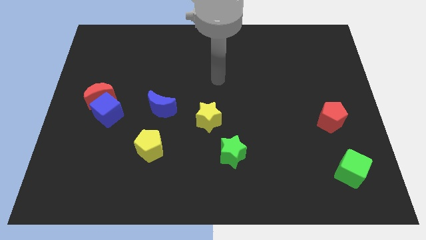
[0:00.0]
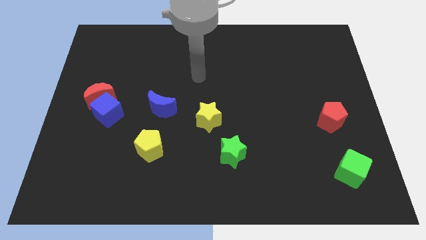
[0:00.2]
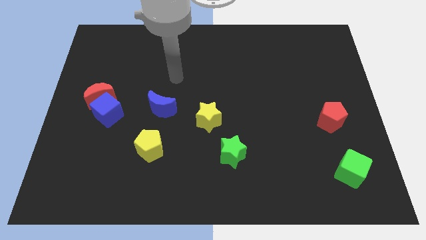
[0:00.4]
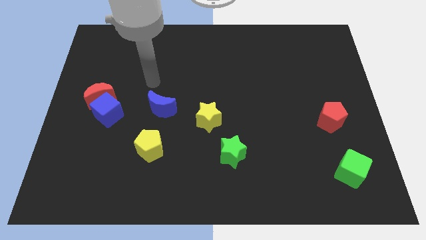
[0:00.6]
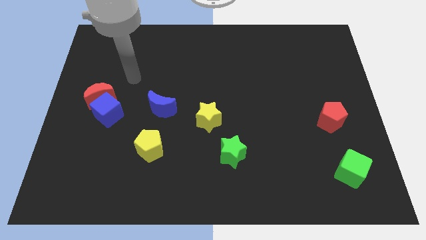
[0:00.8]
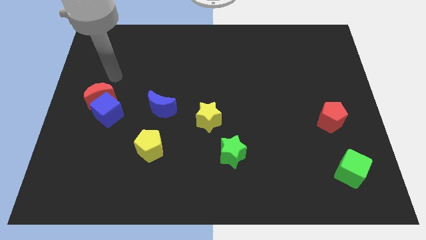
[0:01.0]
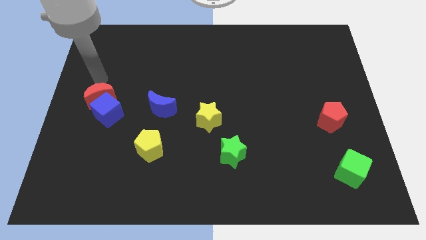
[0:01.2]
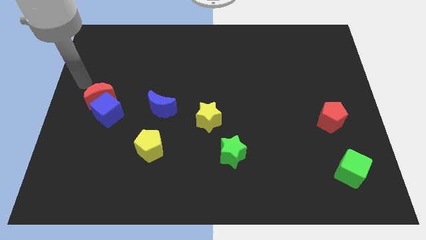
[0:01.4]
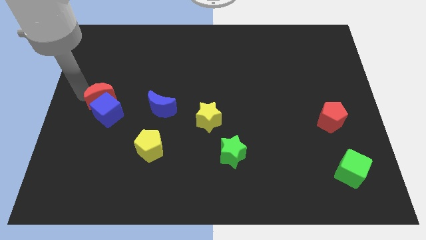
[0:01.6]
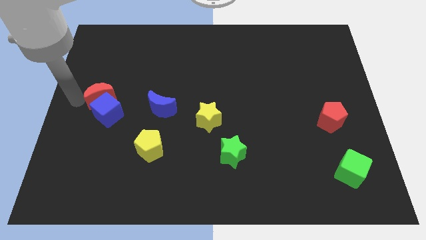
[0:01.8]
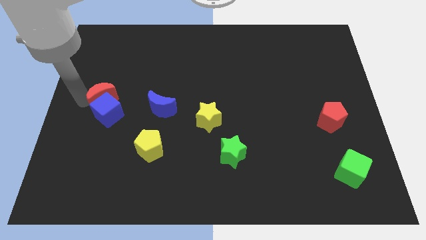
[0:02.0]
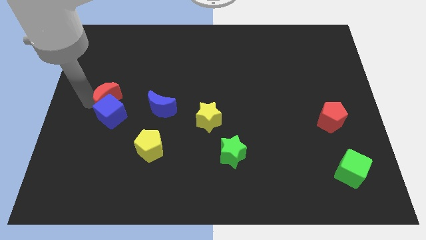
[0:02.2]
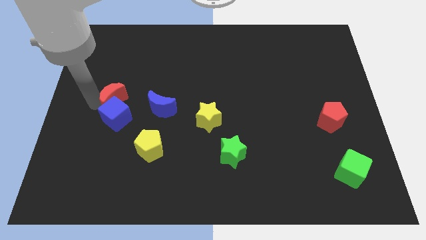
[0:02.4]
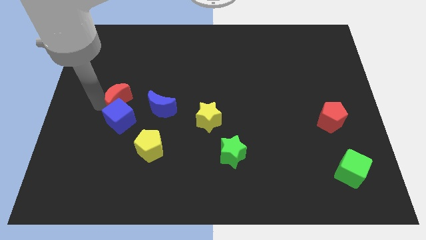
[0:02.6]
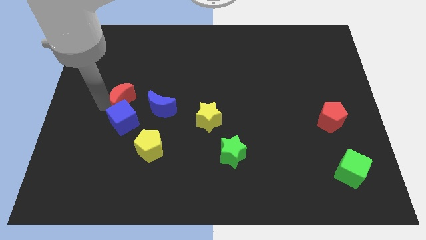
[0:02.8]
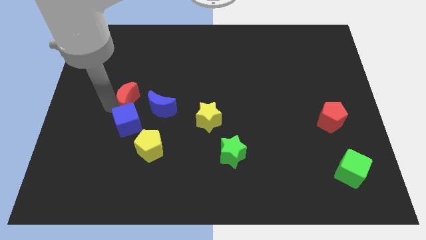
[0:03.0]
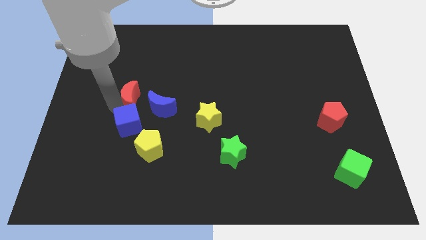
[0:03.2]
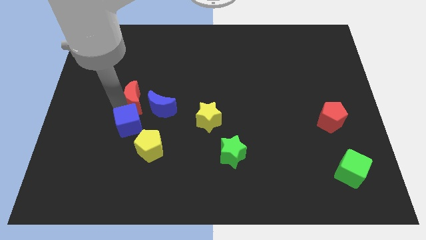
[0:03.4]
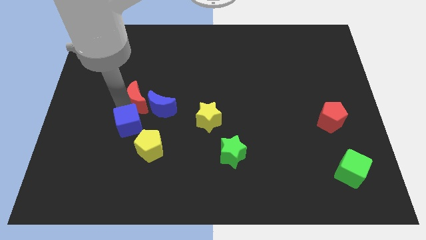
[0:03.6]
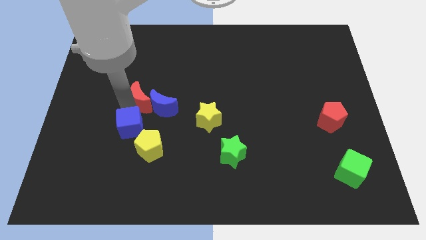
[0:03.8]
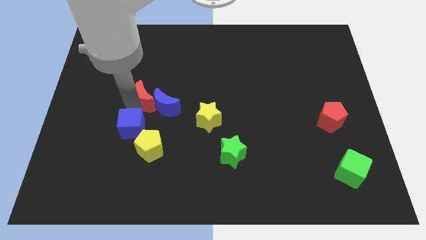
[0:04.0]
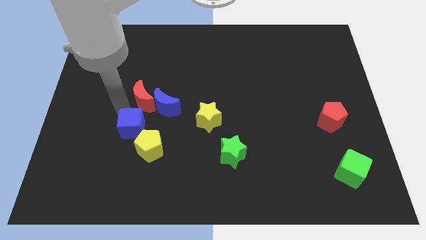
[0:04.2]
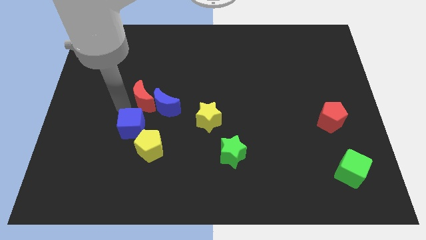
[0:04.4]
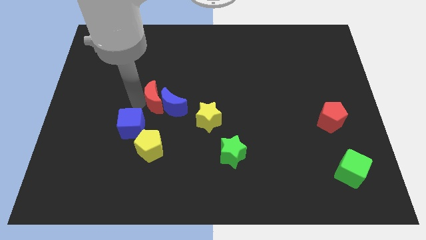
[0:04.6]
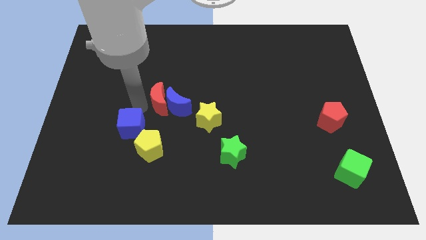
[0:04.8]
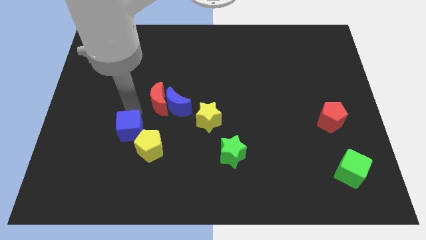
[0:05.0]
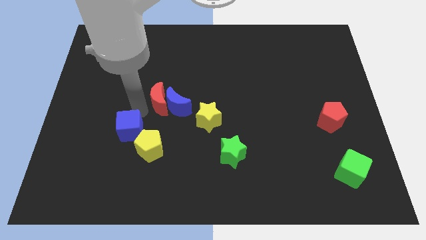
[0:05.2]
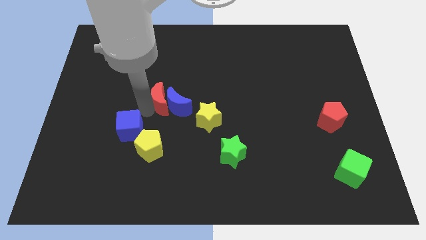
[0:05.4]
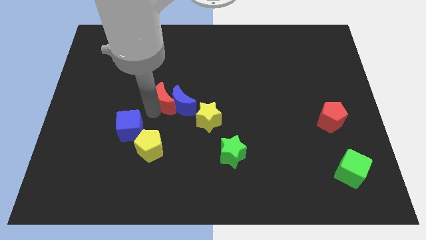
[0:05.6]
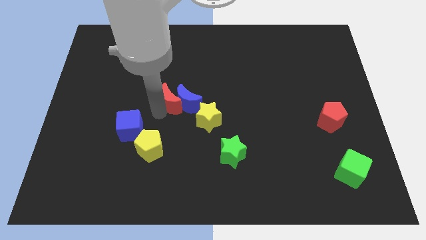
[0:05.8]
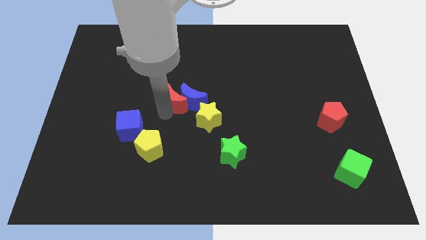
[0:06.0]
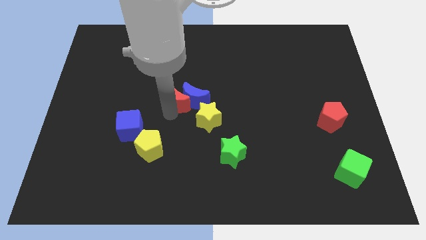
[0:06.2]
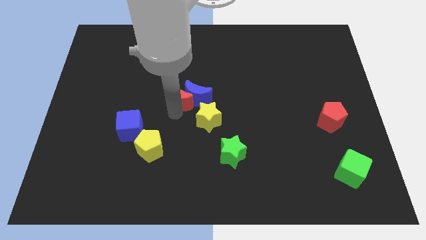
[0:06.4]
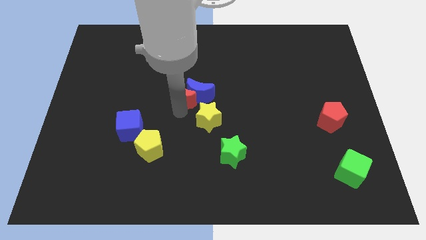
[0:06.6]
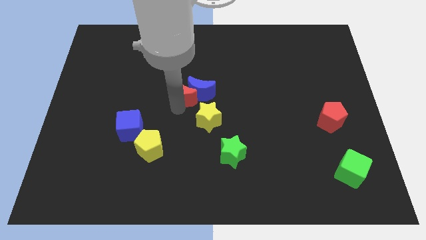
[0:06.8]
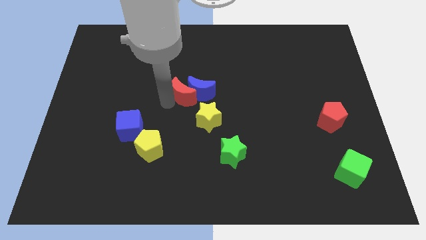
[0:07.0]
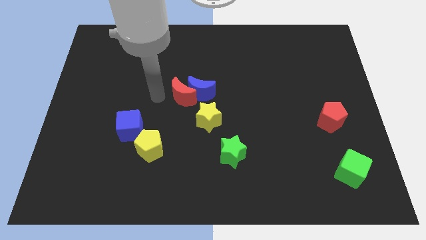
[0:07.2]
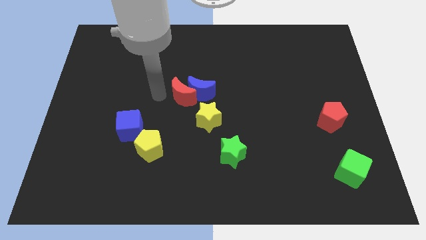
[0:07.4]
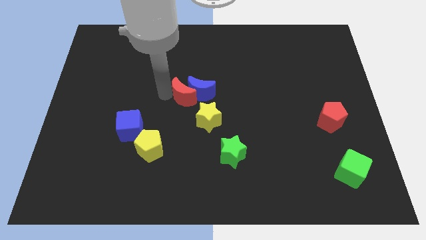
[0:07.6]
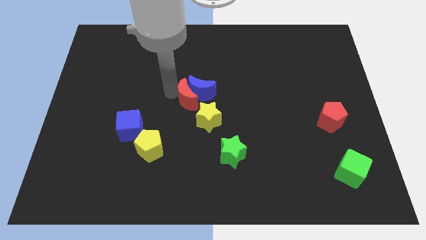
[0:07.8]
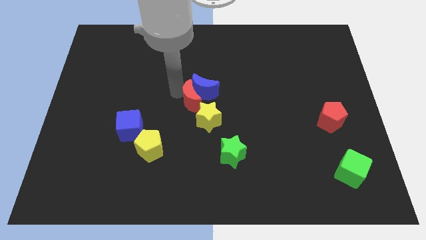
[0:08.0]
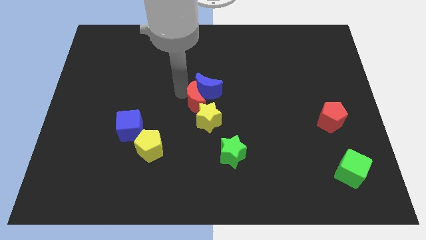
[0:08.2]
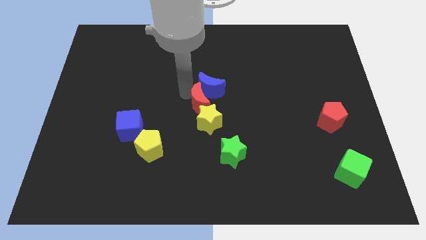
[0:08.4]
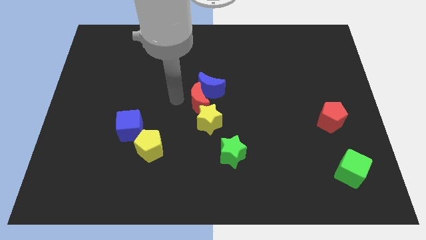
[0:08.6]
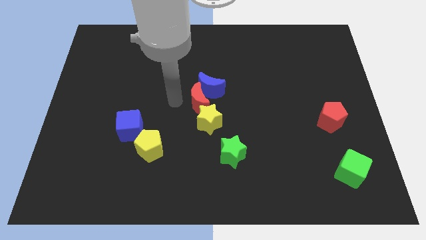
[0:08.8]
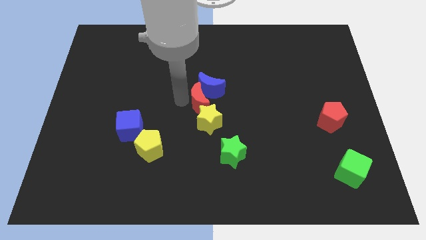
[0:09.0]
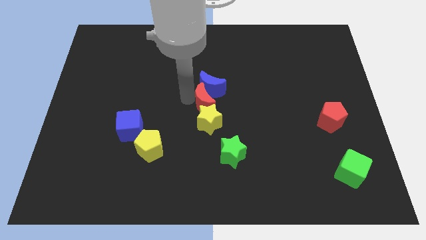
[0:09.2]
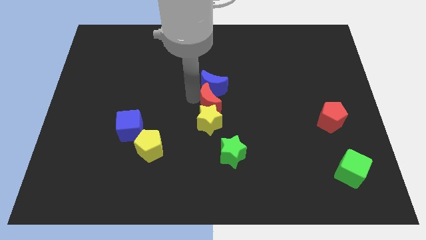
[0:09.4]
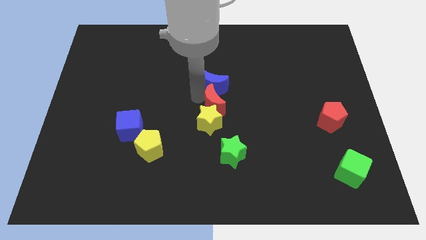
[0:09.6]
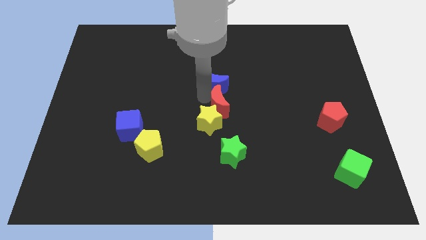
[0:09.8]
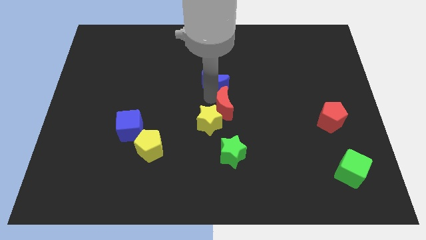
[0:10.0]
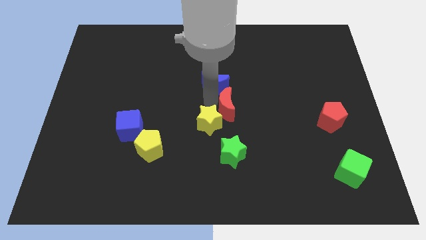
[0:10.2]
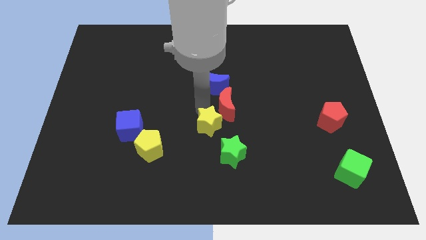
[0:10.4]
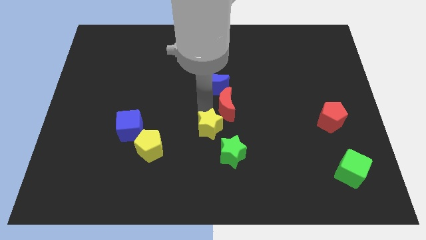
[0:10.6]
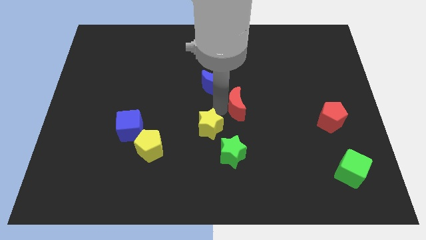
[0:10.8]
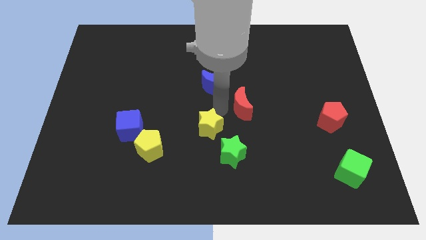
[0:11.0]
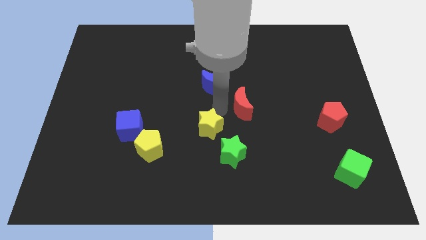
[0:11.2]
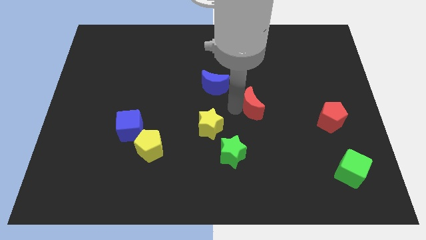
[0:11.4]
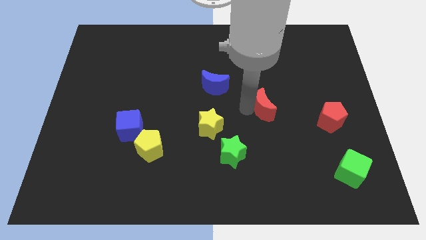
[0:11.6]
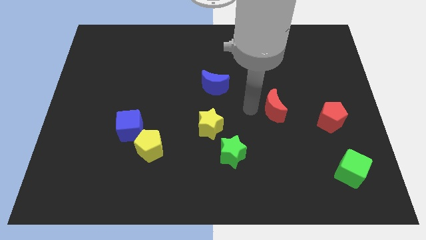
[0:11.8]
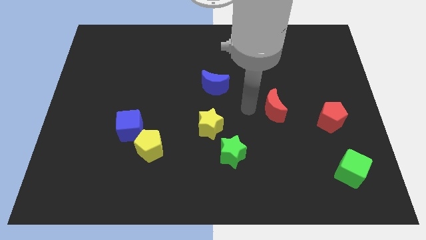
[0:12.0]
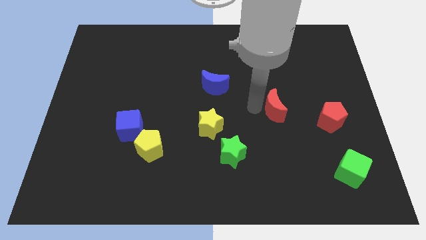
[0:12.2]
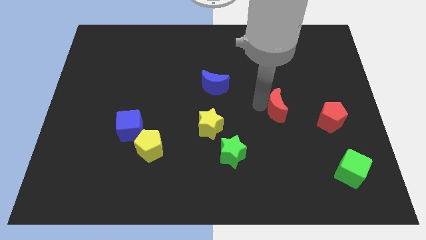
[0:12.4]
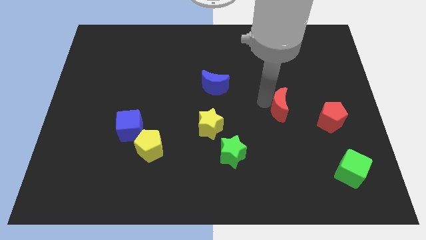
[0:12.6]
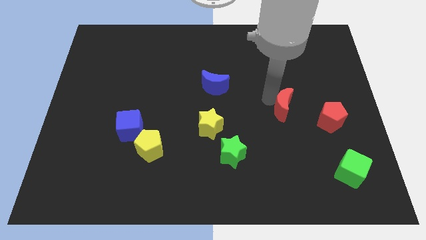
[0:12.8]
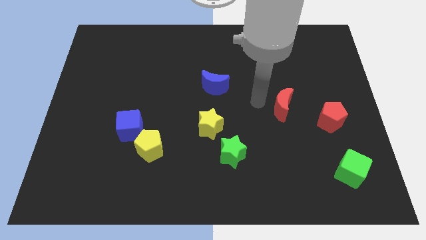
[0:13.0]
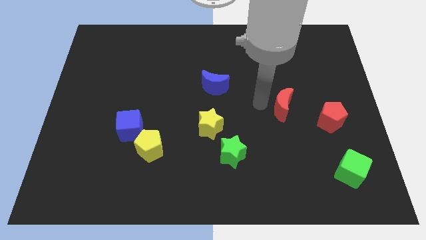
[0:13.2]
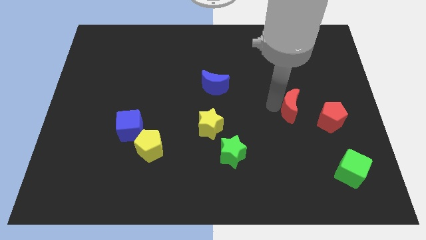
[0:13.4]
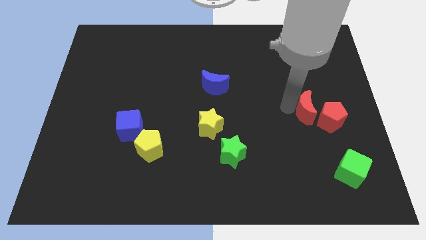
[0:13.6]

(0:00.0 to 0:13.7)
push the red moon towards the red pentagon

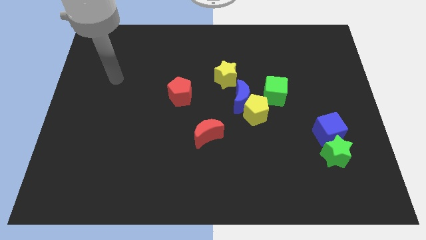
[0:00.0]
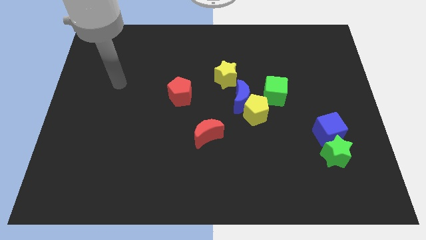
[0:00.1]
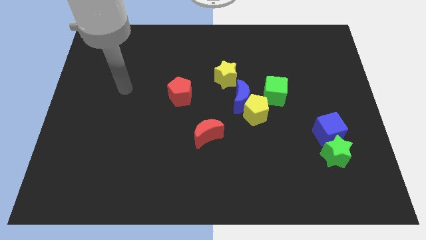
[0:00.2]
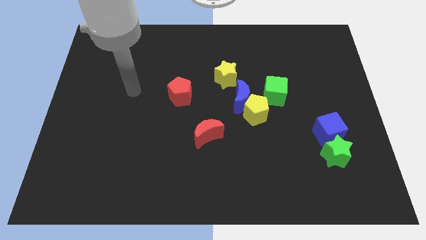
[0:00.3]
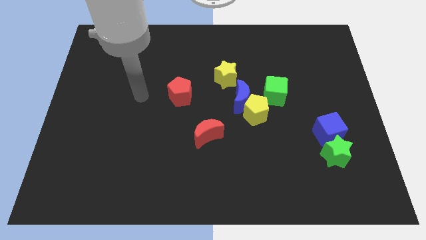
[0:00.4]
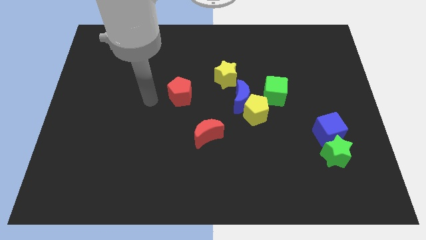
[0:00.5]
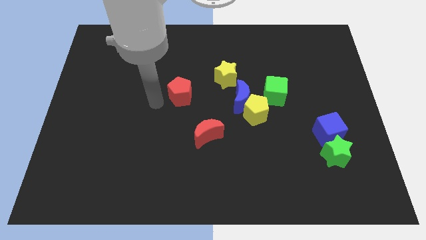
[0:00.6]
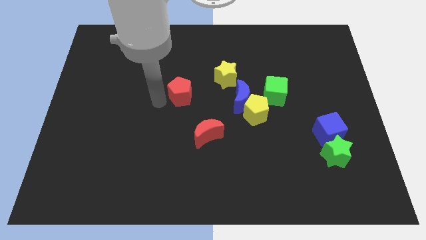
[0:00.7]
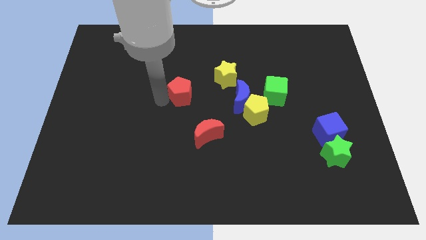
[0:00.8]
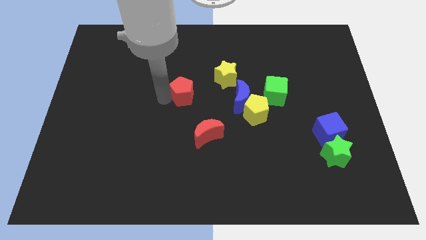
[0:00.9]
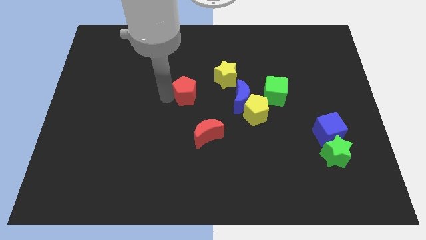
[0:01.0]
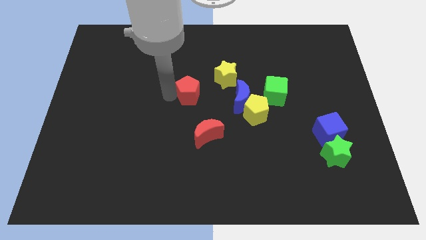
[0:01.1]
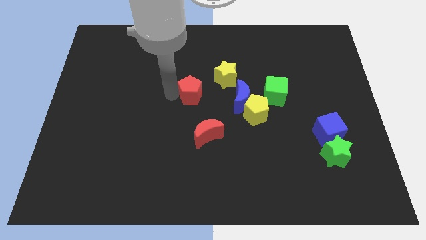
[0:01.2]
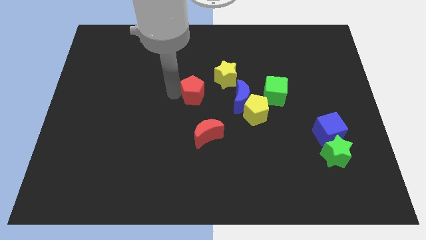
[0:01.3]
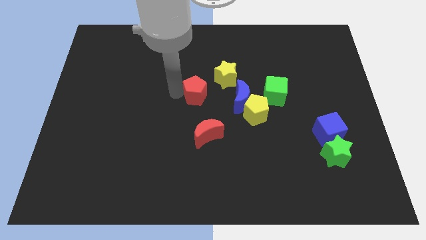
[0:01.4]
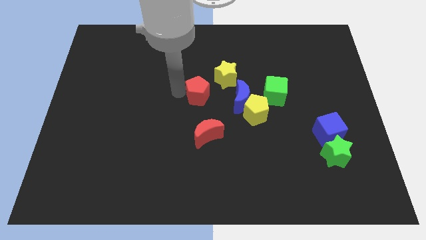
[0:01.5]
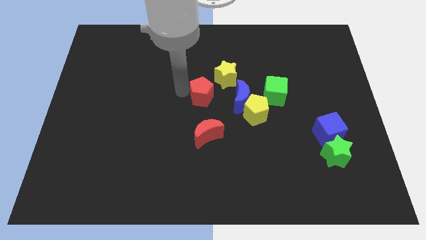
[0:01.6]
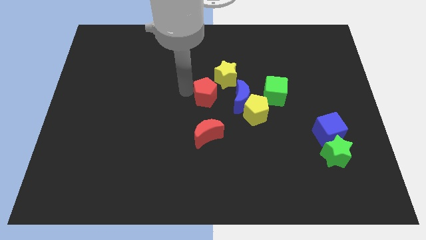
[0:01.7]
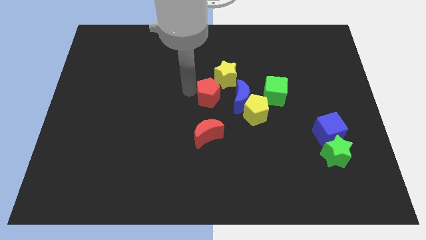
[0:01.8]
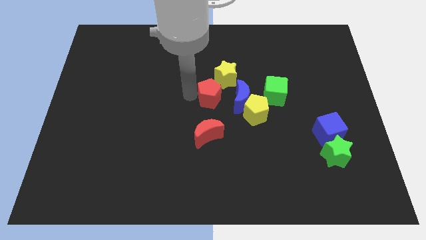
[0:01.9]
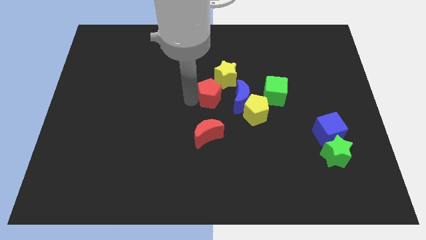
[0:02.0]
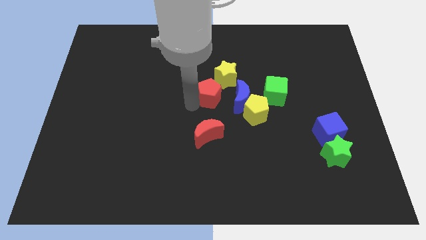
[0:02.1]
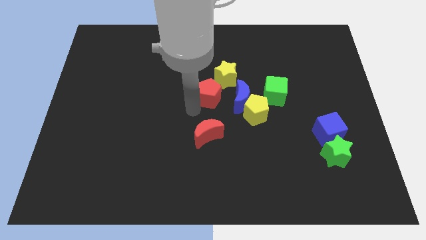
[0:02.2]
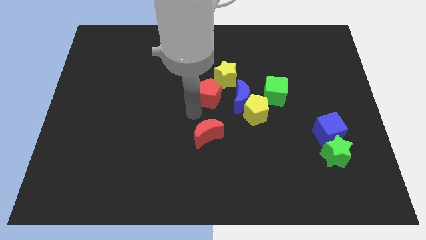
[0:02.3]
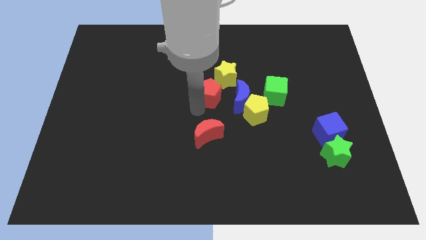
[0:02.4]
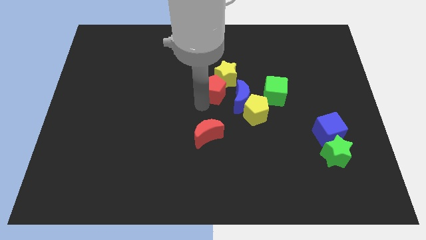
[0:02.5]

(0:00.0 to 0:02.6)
slide the red pentagon to the yellow star
